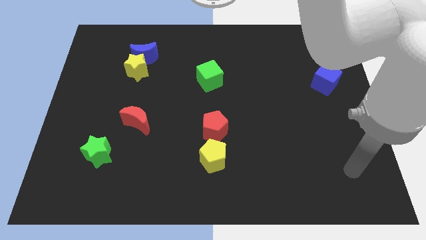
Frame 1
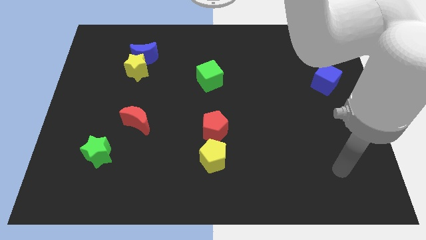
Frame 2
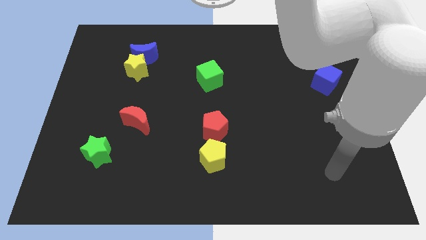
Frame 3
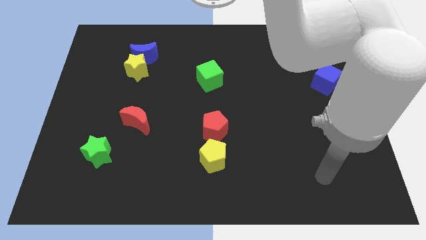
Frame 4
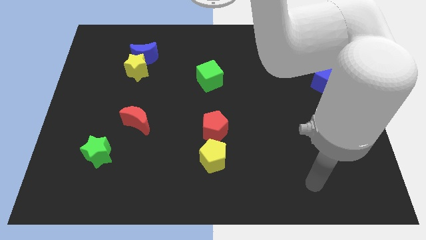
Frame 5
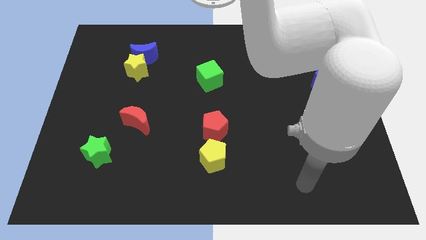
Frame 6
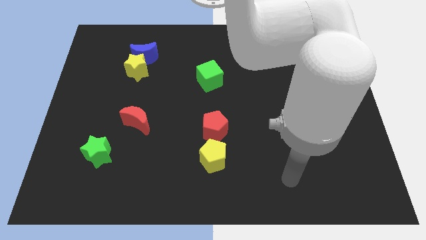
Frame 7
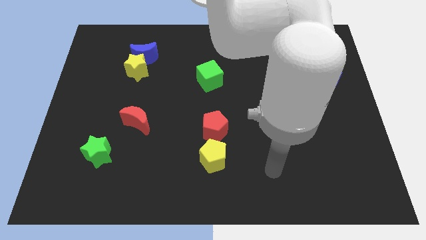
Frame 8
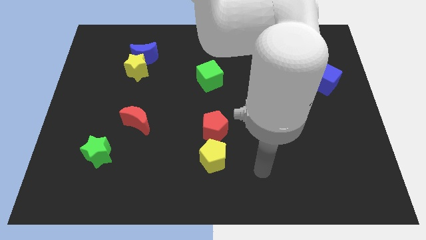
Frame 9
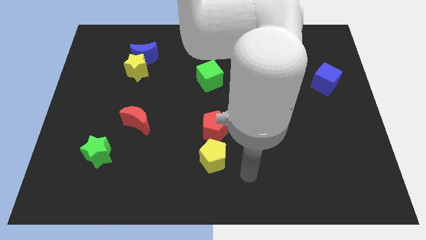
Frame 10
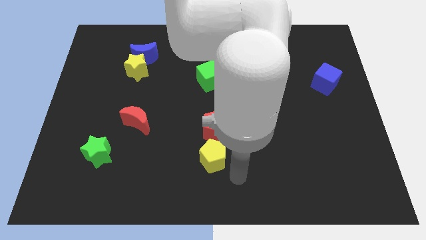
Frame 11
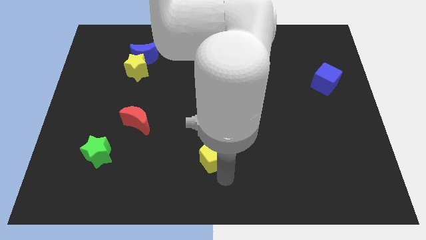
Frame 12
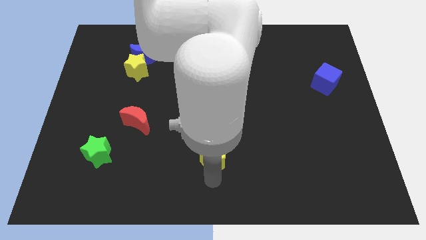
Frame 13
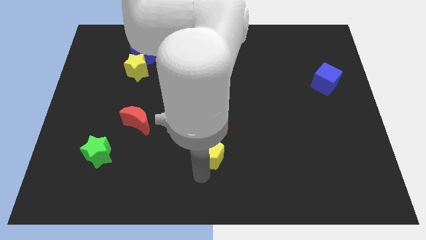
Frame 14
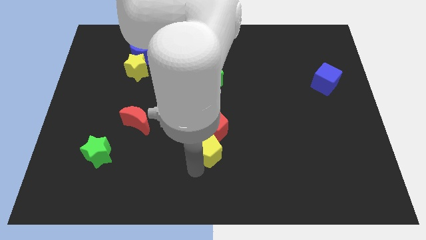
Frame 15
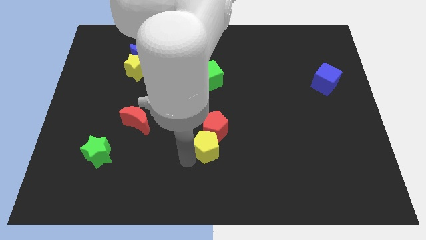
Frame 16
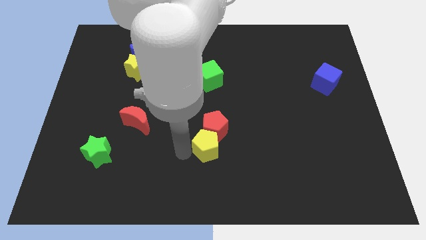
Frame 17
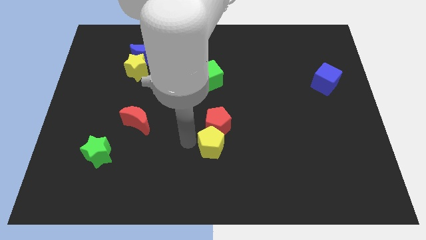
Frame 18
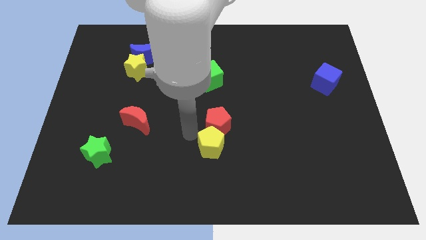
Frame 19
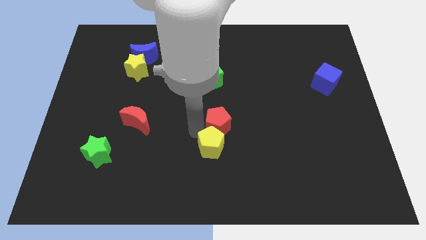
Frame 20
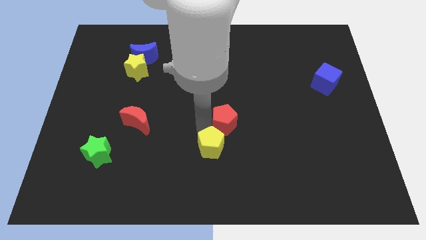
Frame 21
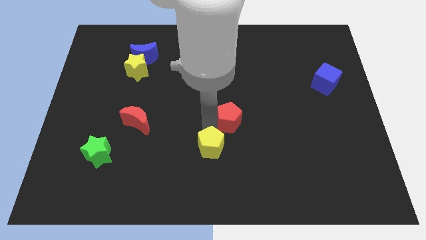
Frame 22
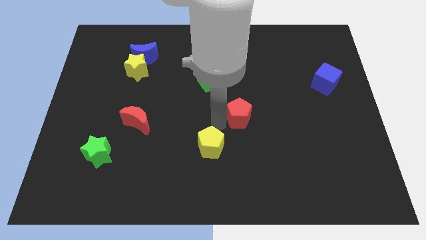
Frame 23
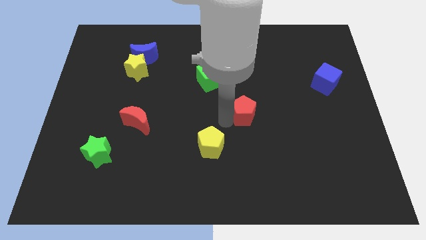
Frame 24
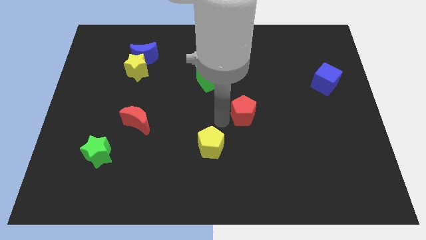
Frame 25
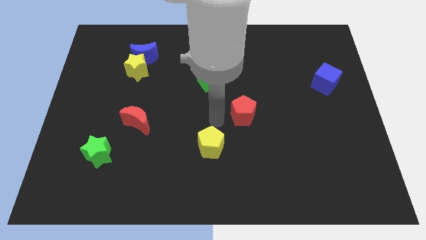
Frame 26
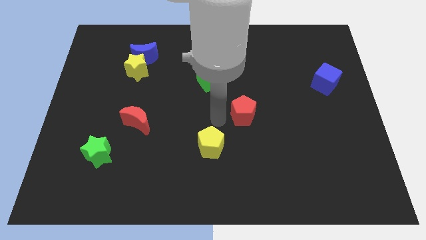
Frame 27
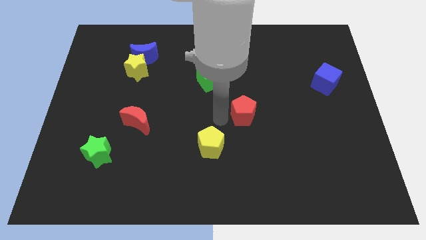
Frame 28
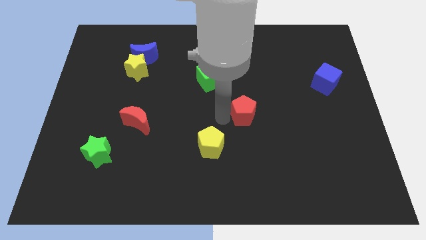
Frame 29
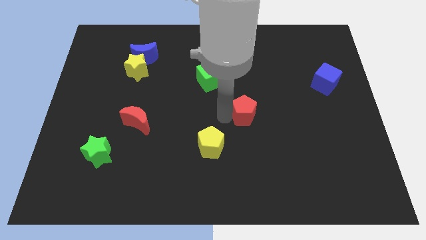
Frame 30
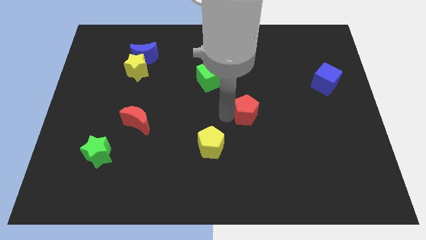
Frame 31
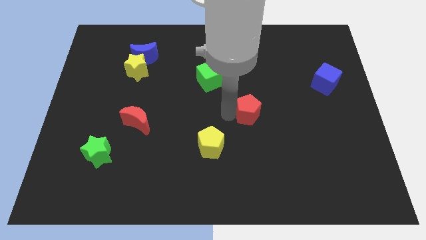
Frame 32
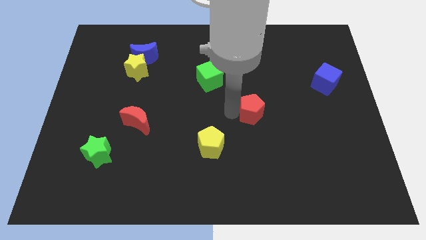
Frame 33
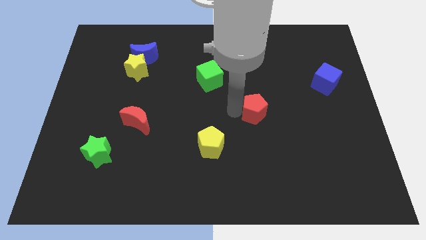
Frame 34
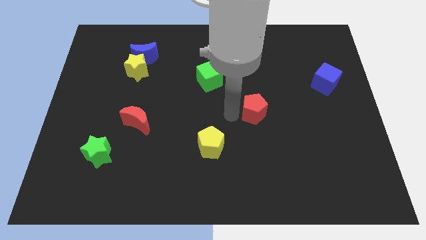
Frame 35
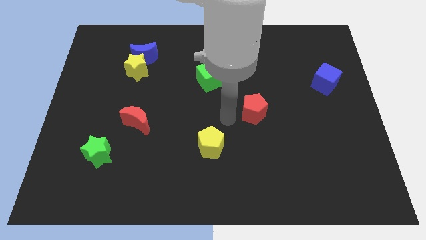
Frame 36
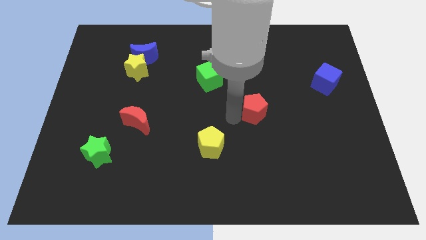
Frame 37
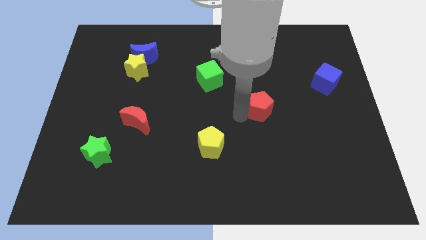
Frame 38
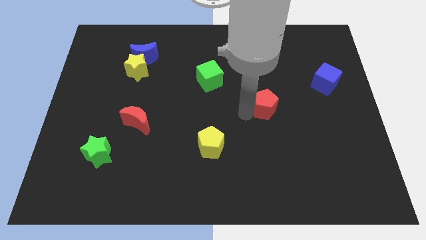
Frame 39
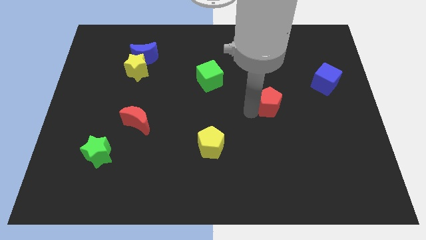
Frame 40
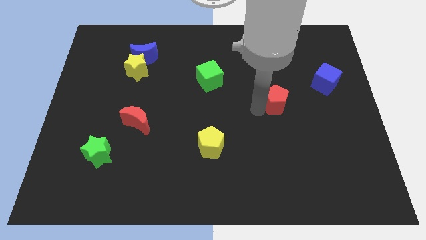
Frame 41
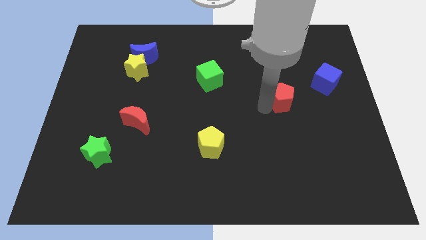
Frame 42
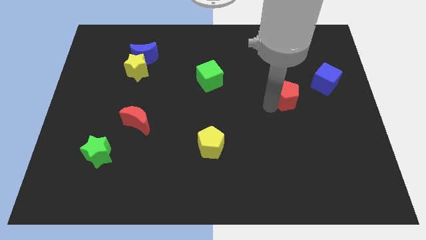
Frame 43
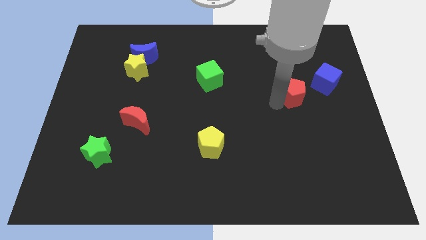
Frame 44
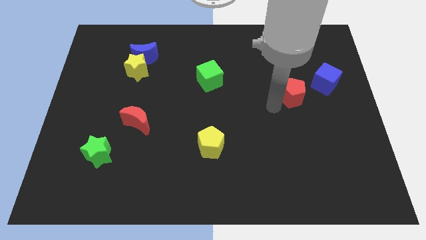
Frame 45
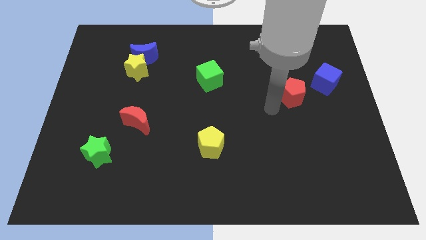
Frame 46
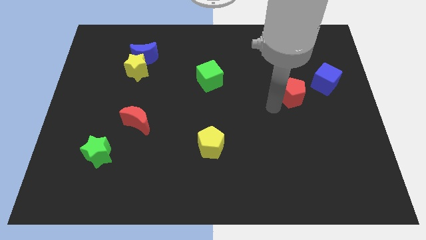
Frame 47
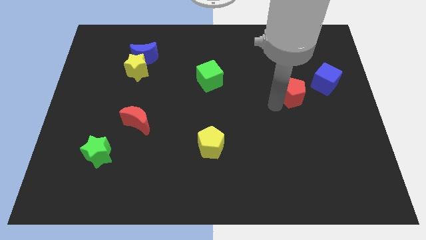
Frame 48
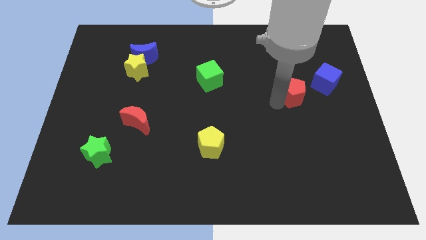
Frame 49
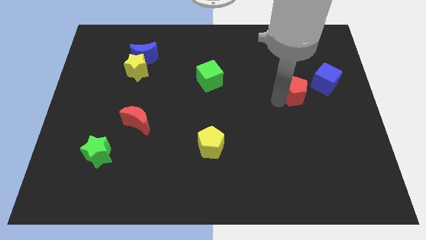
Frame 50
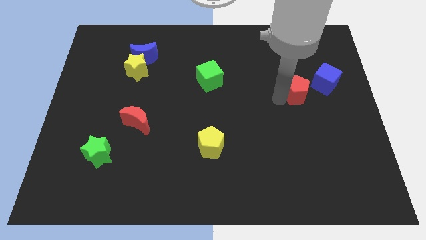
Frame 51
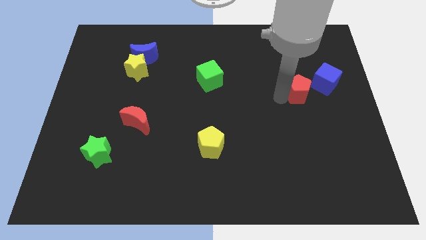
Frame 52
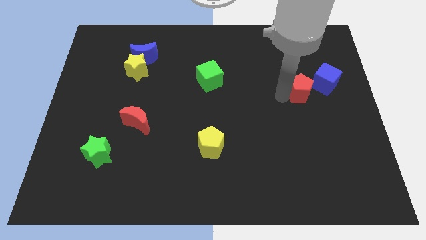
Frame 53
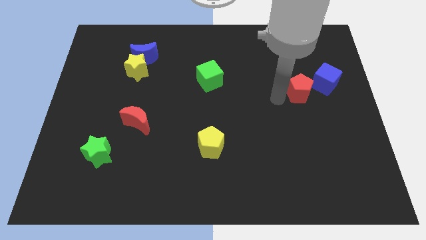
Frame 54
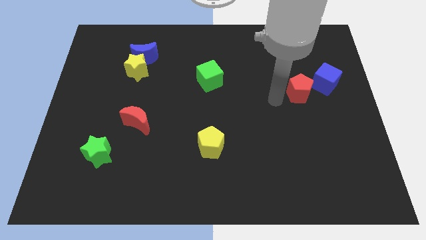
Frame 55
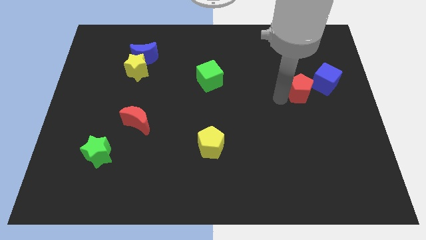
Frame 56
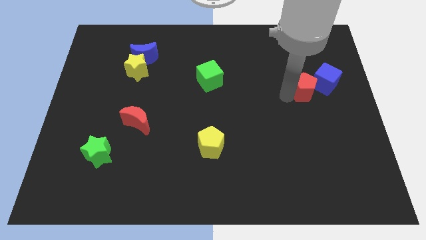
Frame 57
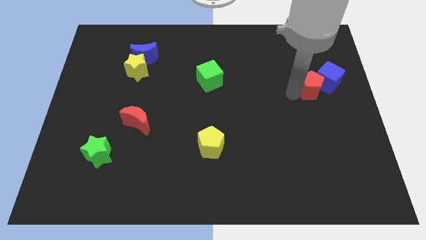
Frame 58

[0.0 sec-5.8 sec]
slide the red pentagon close to the blue cube
